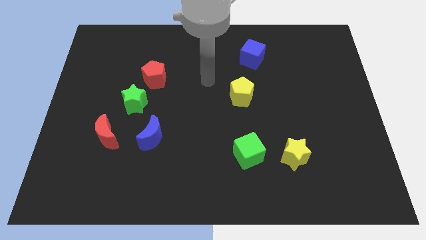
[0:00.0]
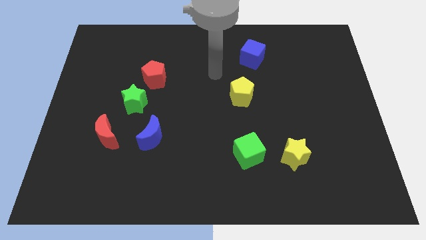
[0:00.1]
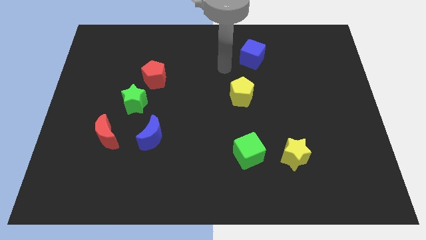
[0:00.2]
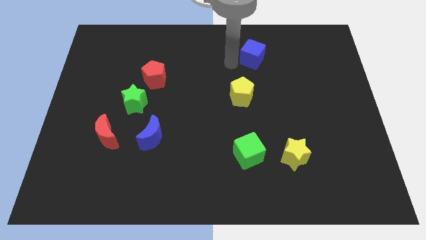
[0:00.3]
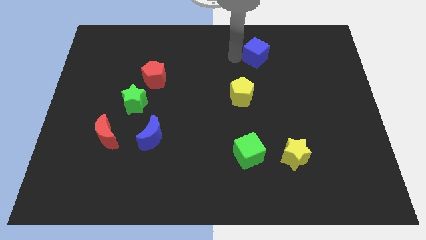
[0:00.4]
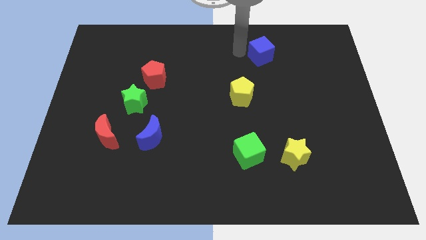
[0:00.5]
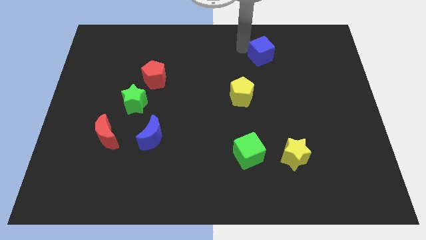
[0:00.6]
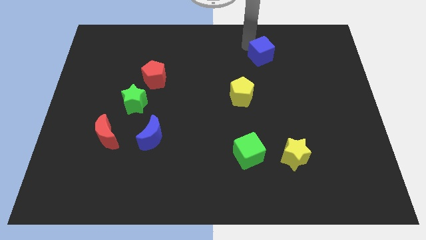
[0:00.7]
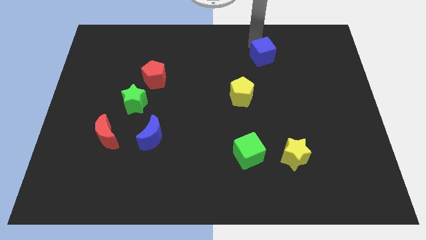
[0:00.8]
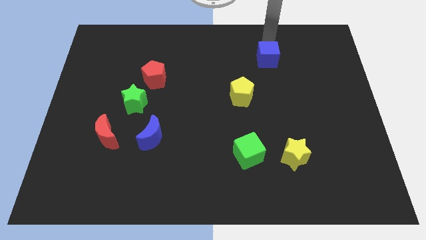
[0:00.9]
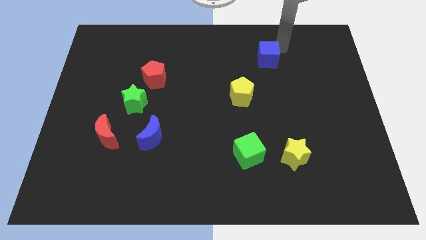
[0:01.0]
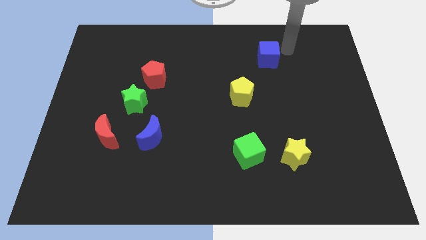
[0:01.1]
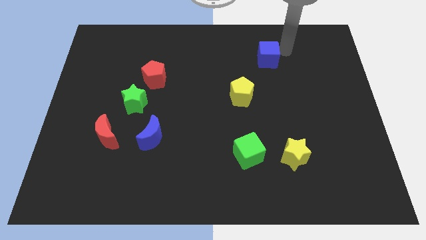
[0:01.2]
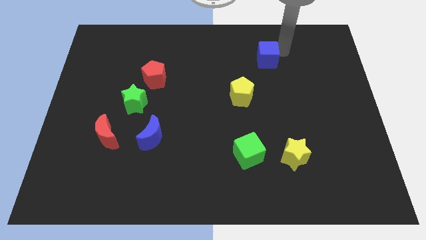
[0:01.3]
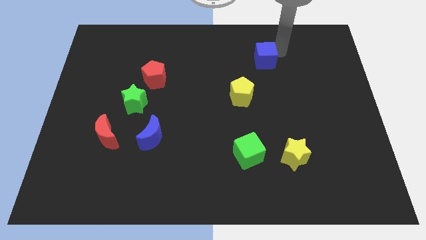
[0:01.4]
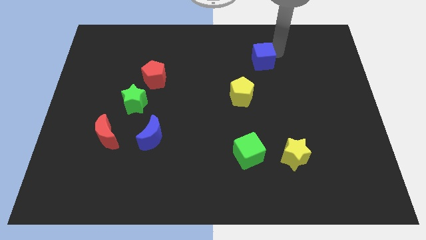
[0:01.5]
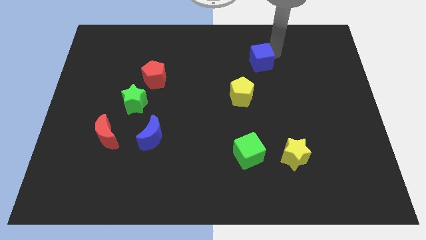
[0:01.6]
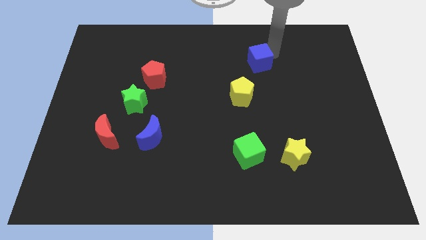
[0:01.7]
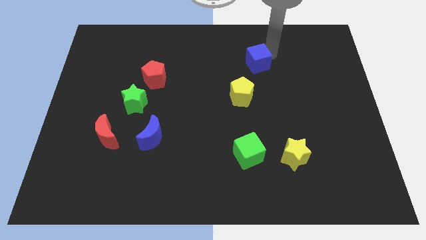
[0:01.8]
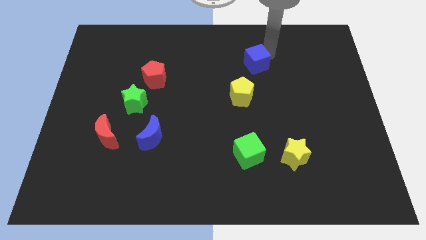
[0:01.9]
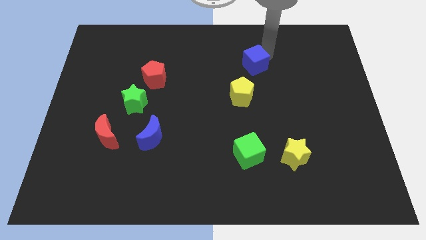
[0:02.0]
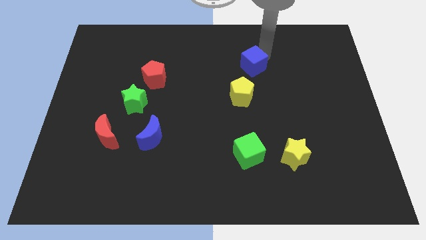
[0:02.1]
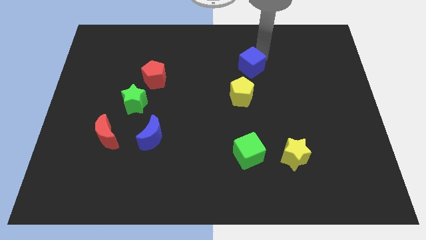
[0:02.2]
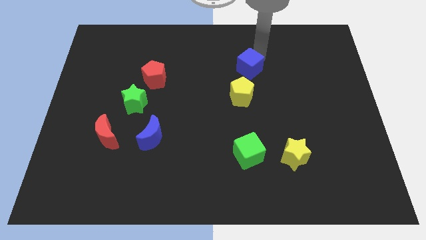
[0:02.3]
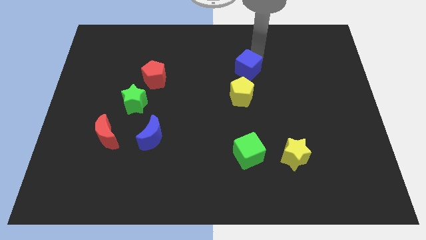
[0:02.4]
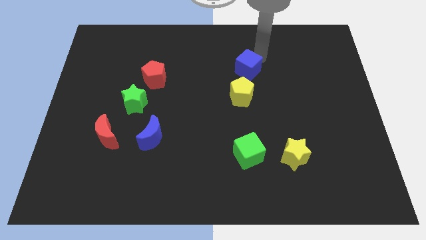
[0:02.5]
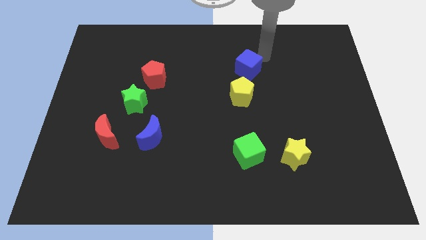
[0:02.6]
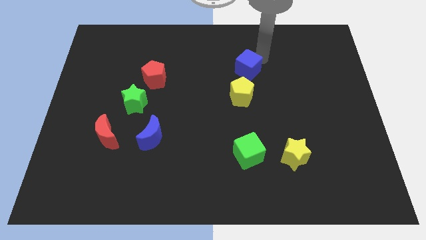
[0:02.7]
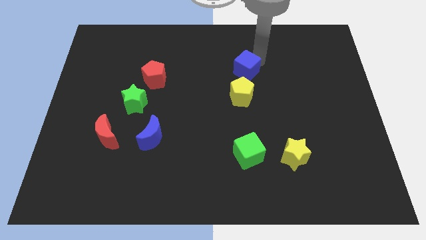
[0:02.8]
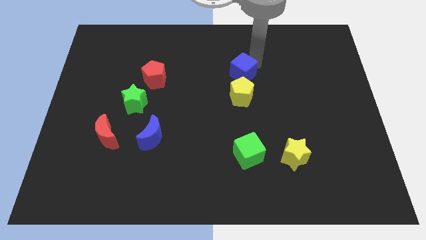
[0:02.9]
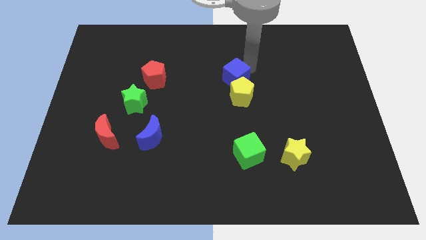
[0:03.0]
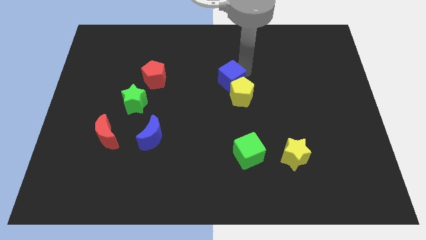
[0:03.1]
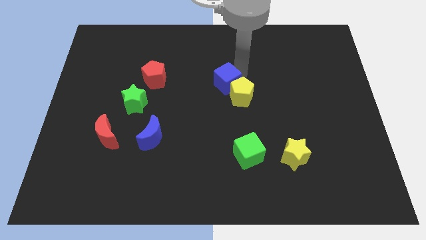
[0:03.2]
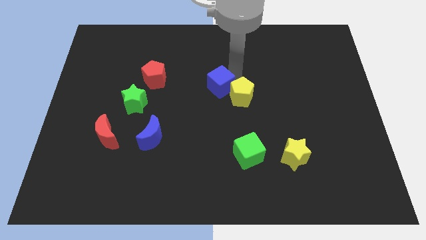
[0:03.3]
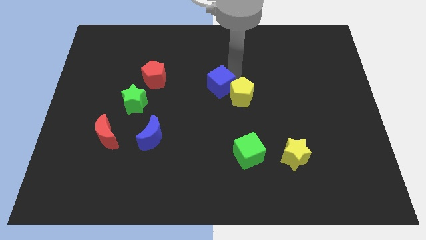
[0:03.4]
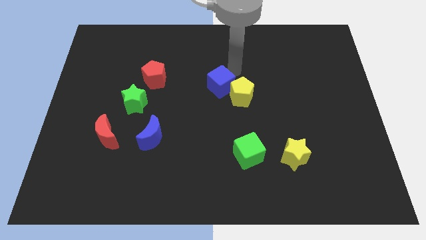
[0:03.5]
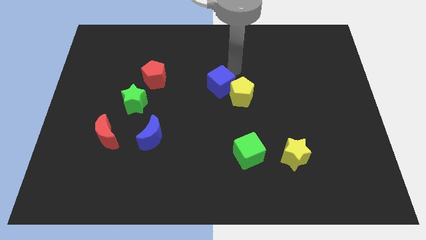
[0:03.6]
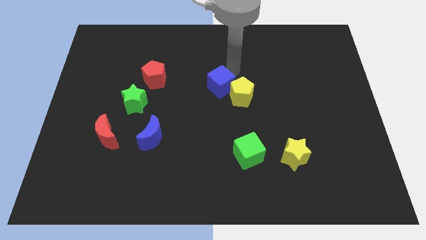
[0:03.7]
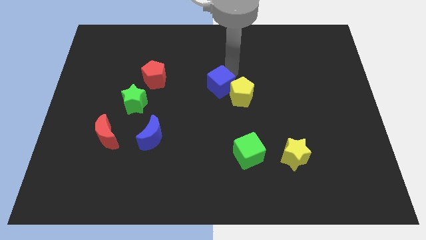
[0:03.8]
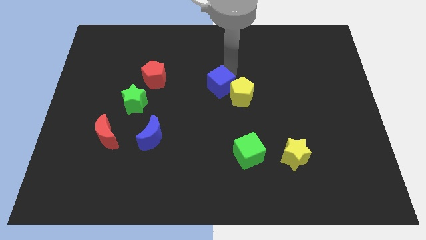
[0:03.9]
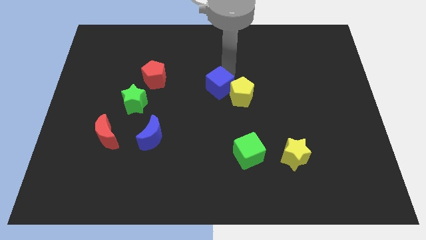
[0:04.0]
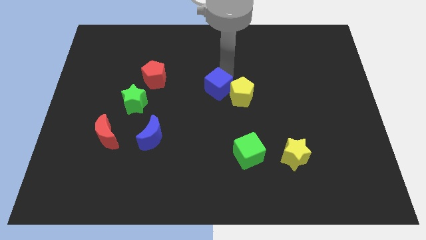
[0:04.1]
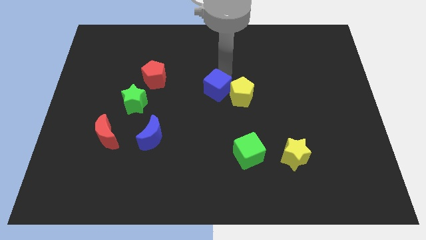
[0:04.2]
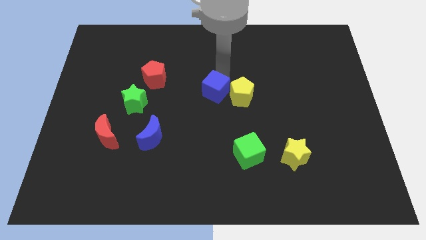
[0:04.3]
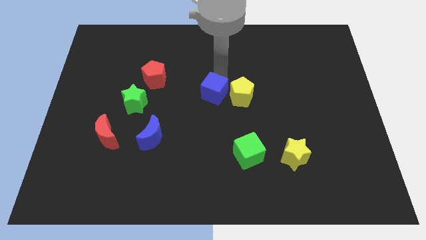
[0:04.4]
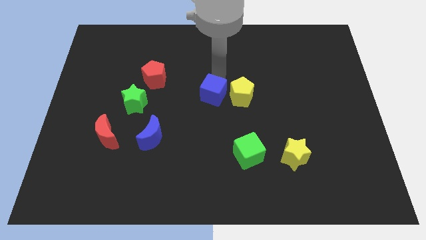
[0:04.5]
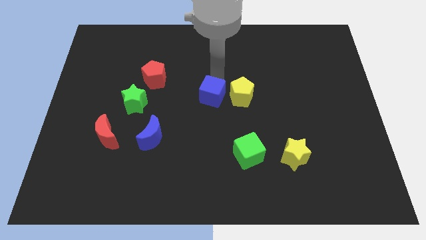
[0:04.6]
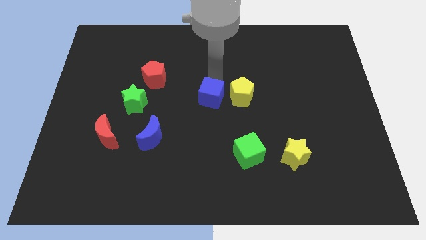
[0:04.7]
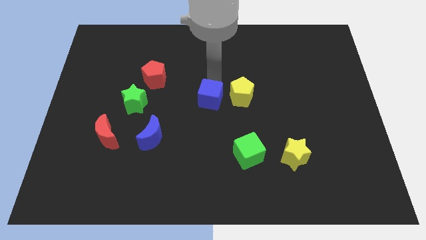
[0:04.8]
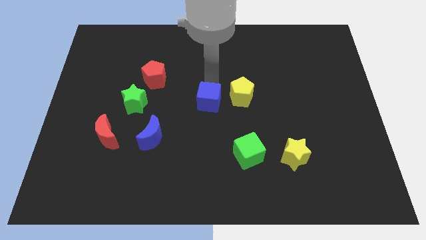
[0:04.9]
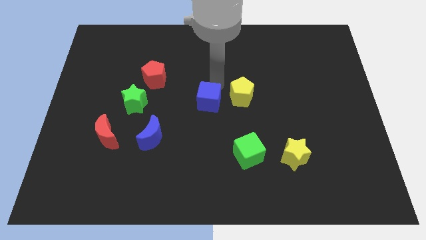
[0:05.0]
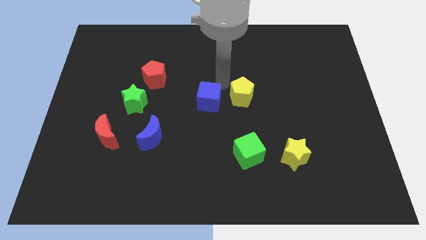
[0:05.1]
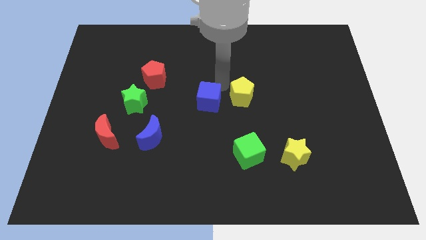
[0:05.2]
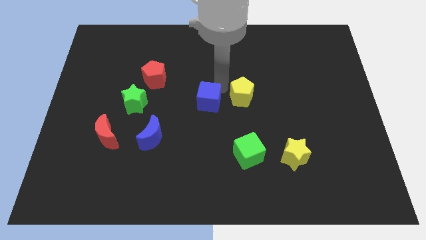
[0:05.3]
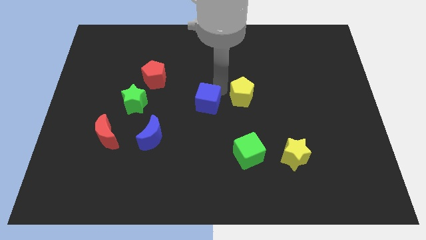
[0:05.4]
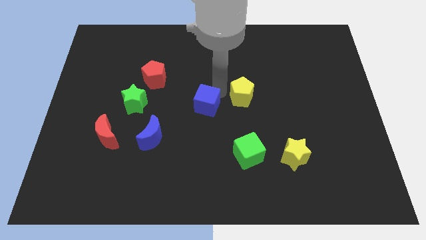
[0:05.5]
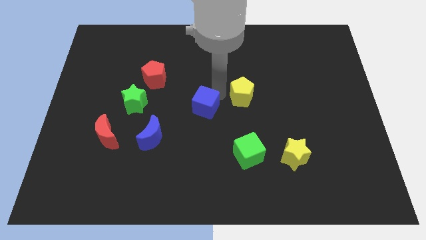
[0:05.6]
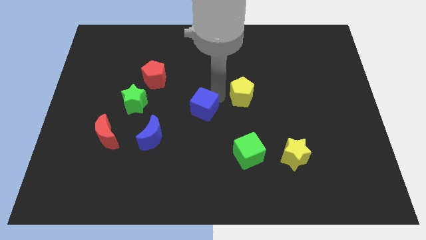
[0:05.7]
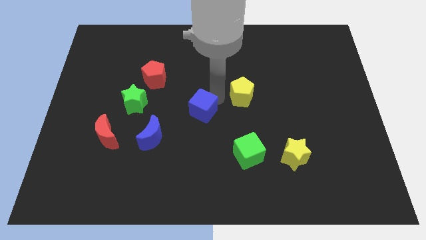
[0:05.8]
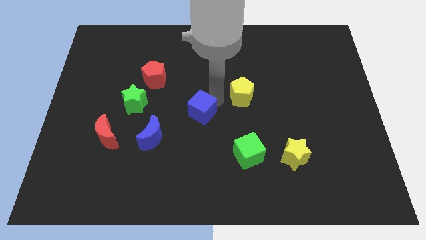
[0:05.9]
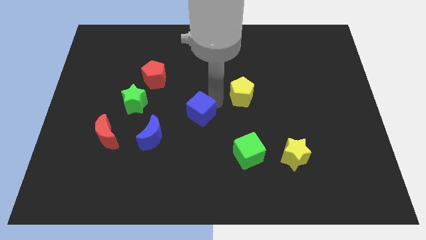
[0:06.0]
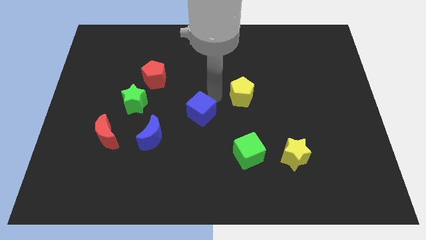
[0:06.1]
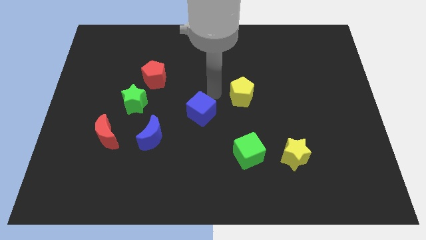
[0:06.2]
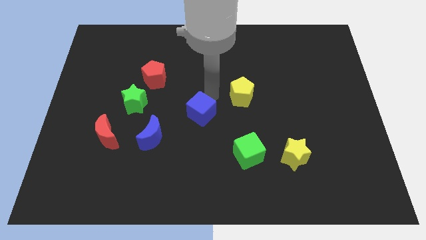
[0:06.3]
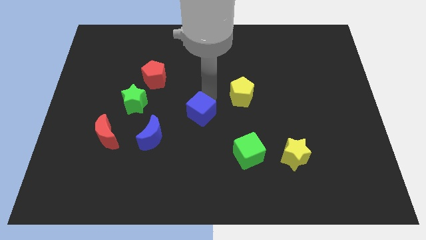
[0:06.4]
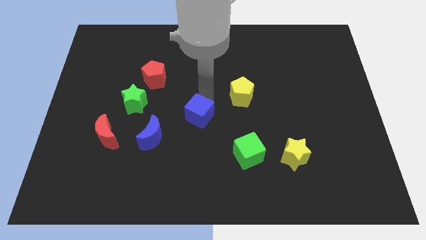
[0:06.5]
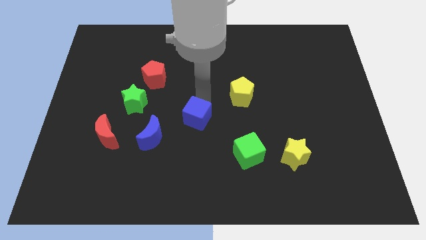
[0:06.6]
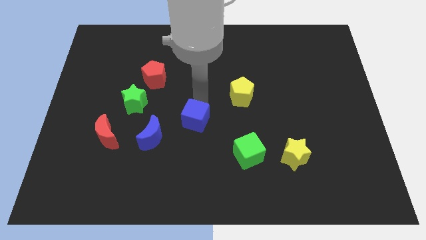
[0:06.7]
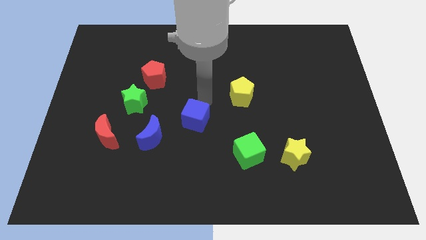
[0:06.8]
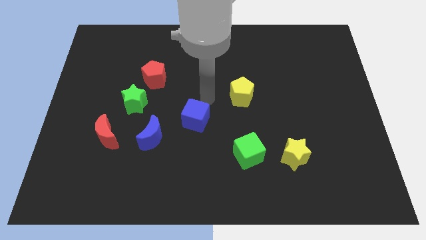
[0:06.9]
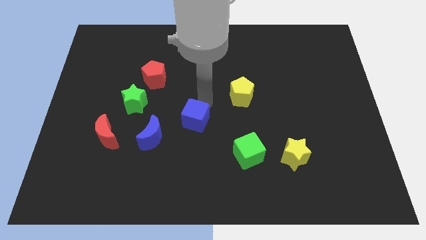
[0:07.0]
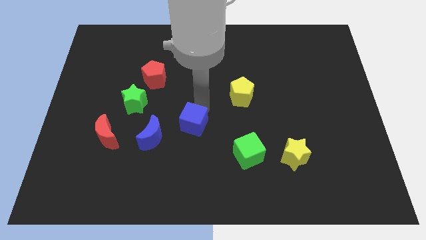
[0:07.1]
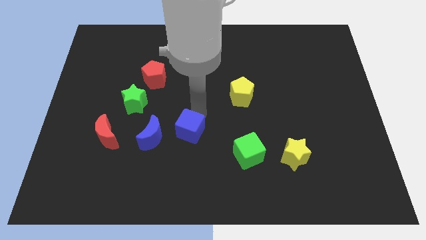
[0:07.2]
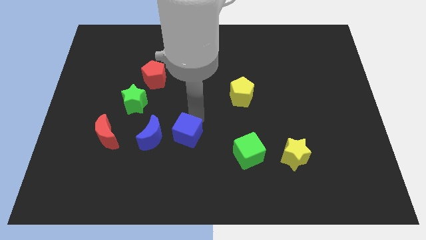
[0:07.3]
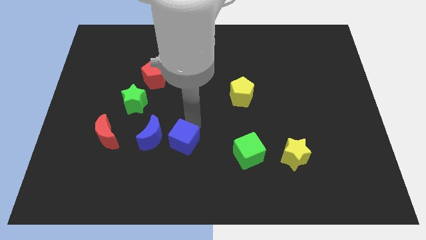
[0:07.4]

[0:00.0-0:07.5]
slide the blue cube diagonally down and to the right of the blue moon

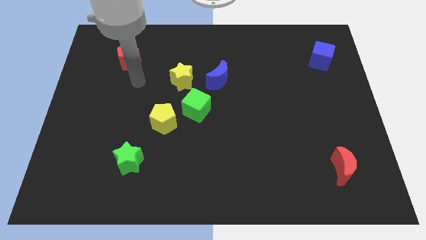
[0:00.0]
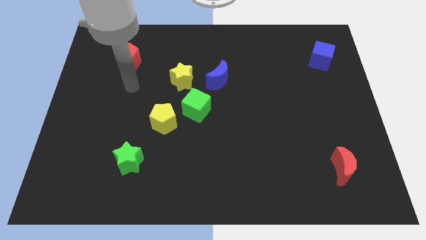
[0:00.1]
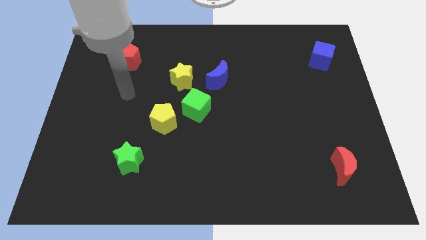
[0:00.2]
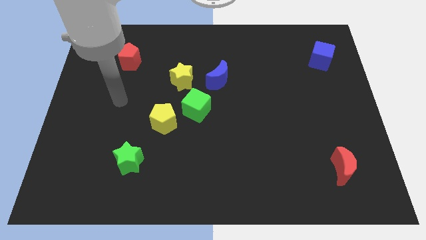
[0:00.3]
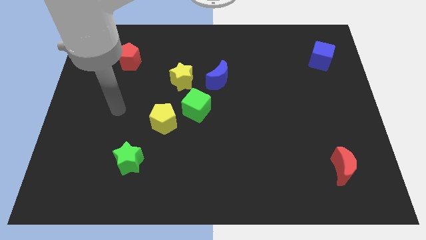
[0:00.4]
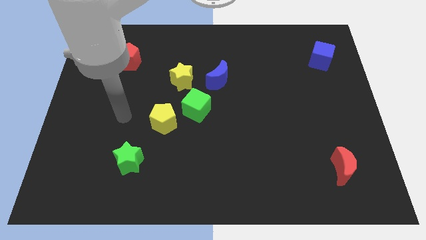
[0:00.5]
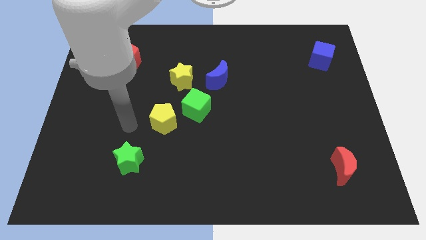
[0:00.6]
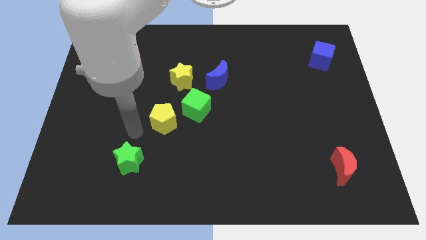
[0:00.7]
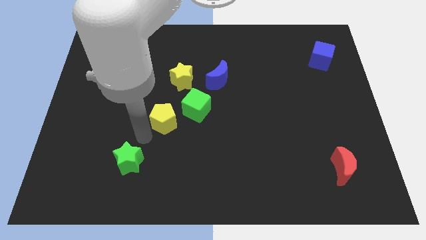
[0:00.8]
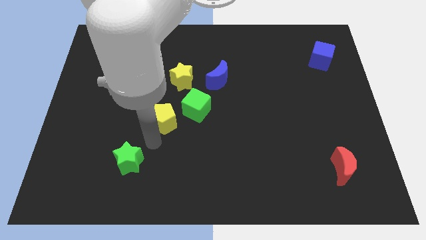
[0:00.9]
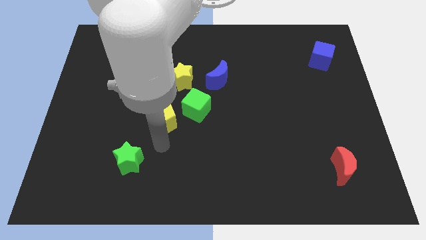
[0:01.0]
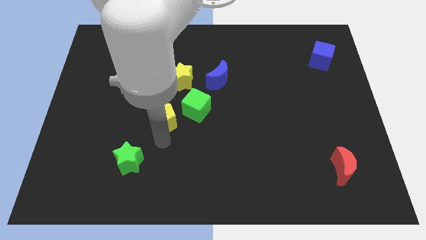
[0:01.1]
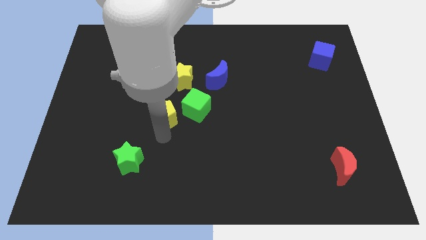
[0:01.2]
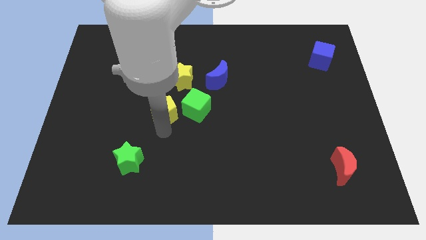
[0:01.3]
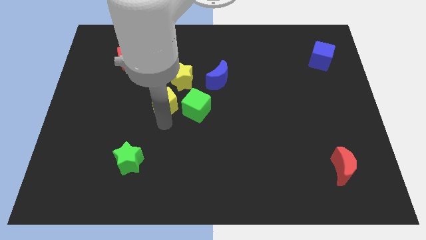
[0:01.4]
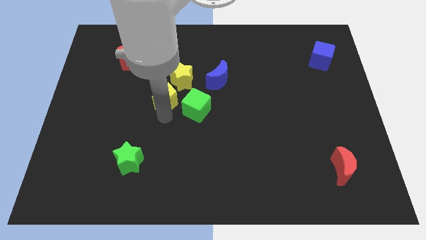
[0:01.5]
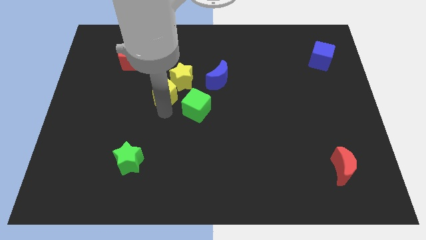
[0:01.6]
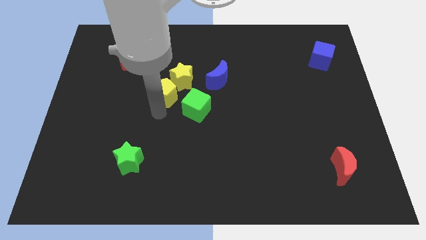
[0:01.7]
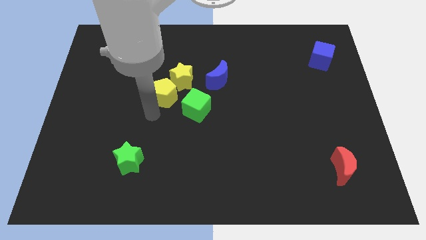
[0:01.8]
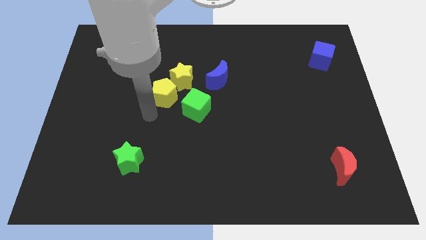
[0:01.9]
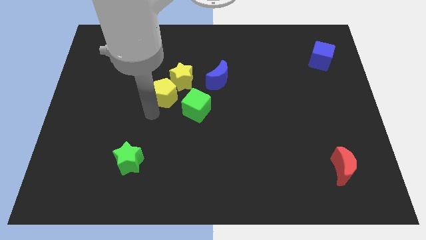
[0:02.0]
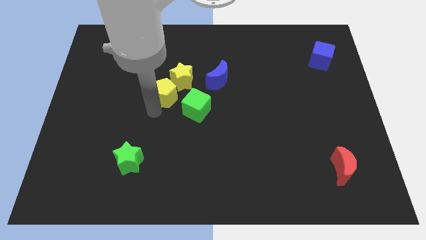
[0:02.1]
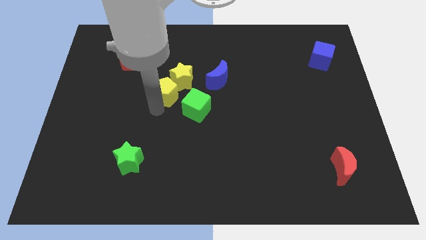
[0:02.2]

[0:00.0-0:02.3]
slide the yellow pentagon left of the blue moon
